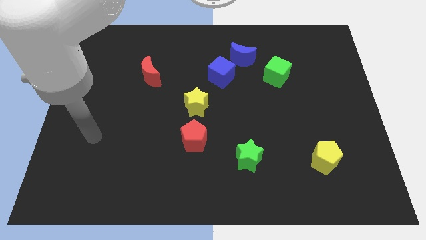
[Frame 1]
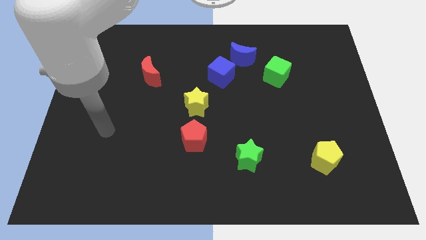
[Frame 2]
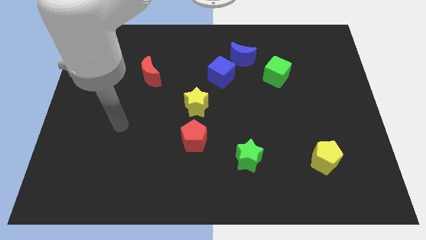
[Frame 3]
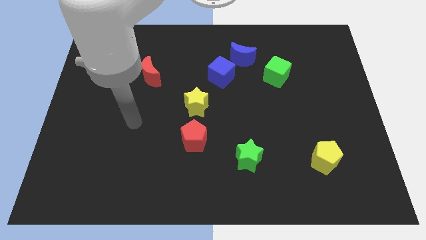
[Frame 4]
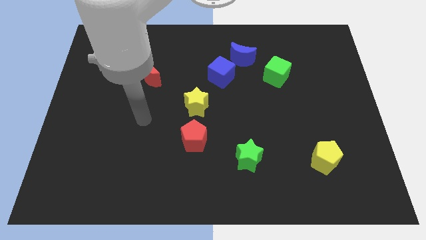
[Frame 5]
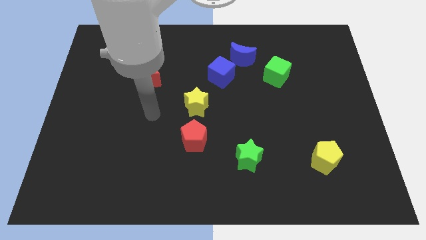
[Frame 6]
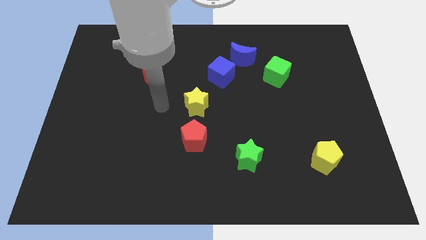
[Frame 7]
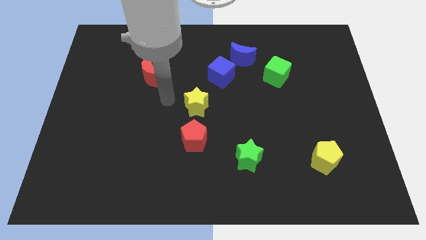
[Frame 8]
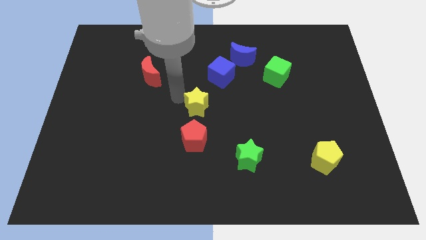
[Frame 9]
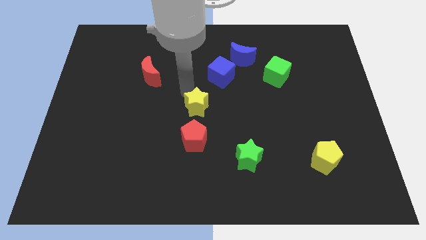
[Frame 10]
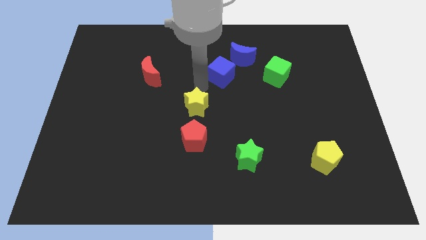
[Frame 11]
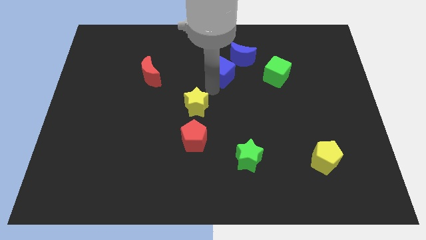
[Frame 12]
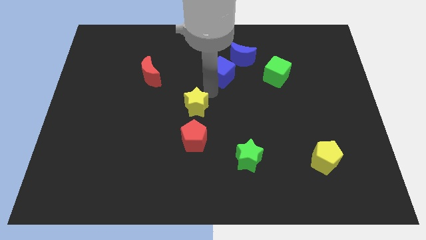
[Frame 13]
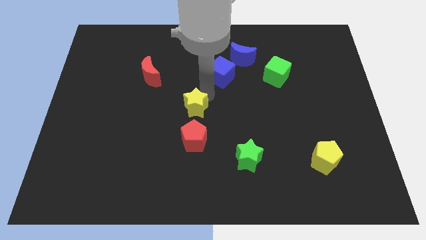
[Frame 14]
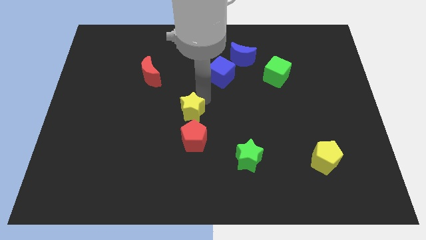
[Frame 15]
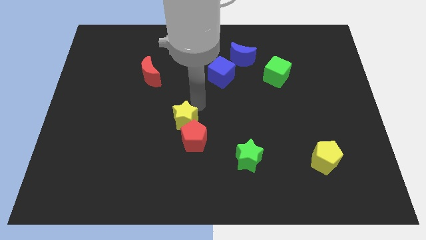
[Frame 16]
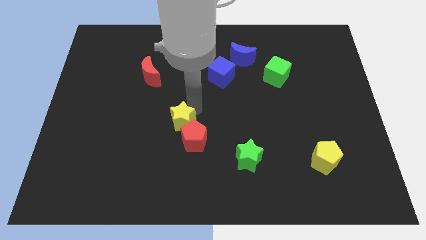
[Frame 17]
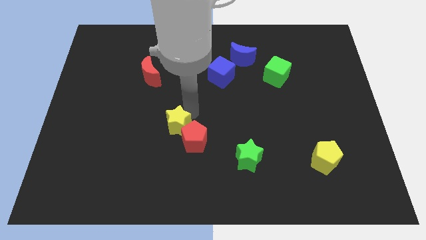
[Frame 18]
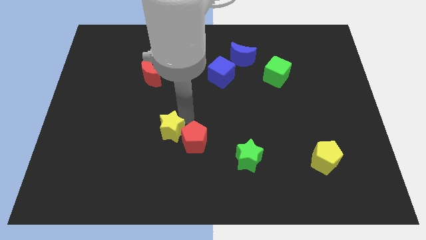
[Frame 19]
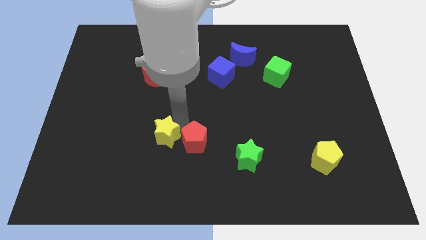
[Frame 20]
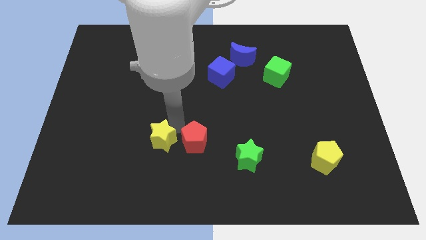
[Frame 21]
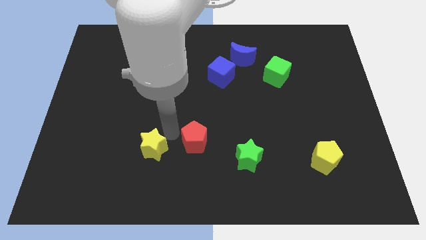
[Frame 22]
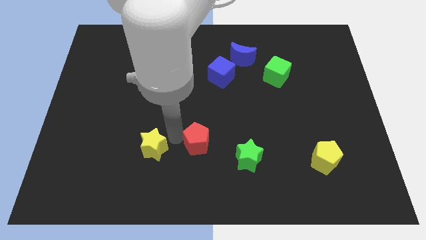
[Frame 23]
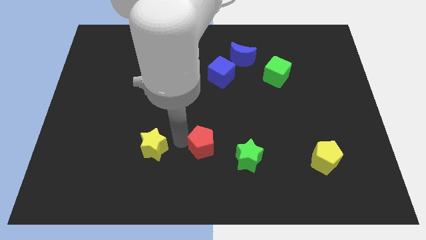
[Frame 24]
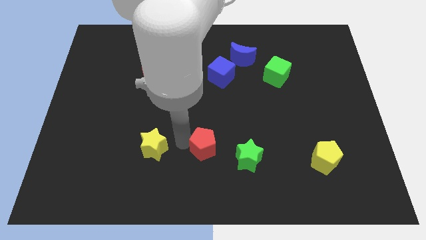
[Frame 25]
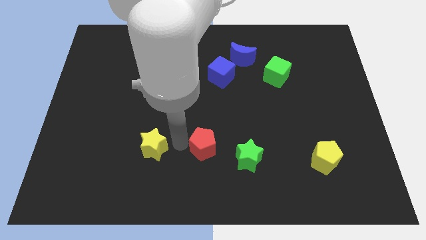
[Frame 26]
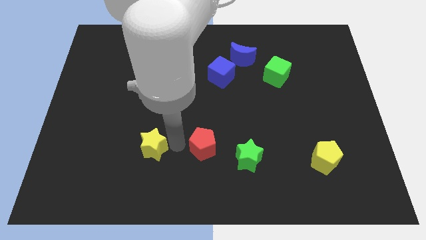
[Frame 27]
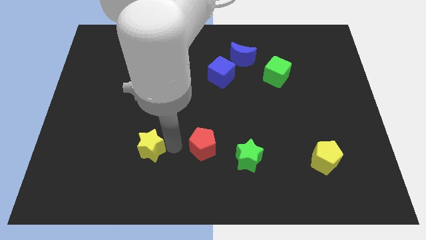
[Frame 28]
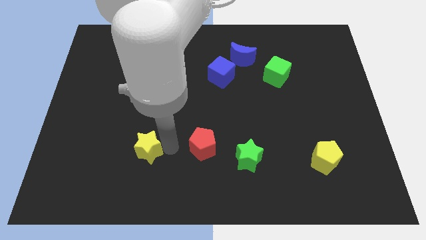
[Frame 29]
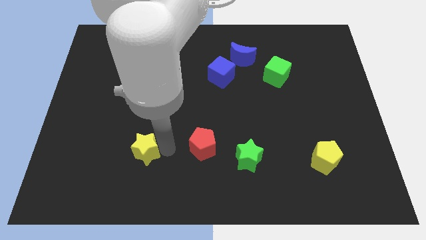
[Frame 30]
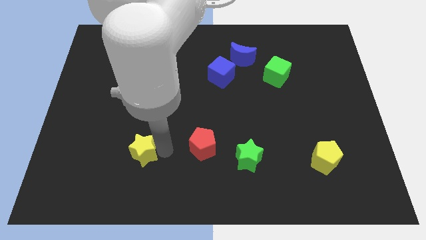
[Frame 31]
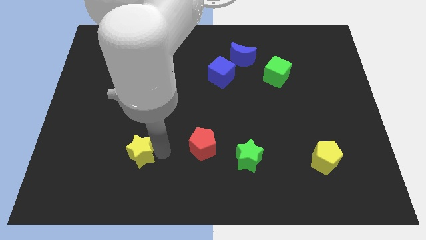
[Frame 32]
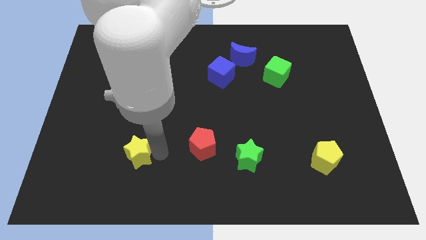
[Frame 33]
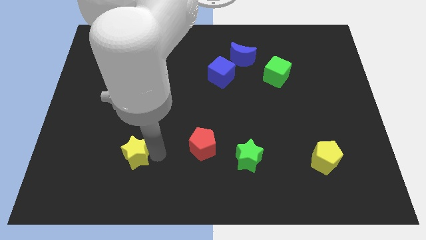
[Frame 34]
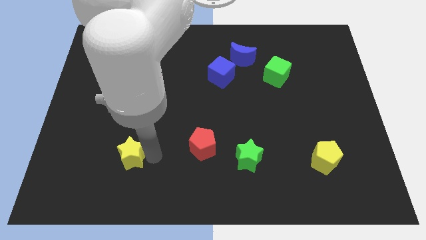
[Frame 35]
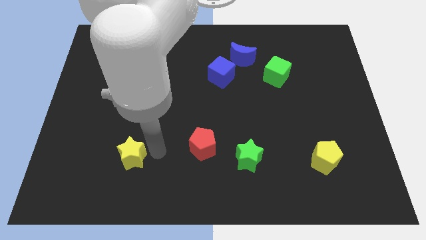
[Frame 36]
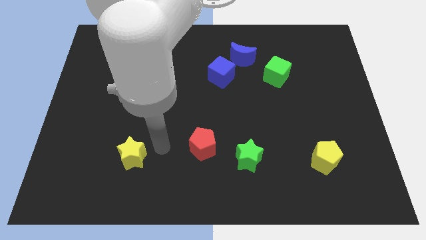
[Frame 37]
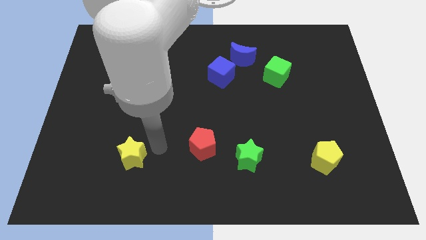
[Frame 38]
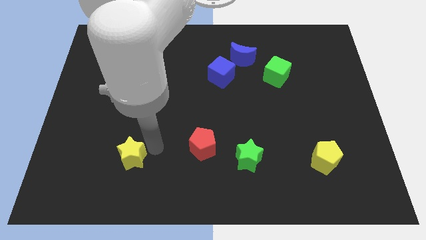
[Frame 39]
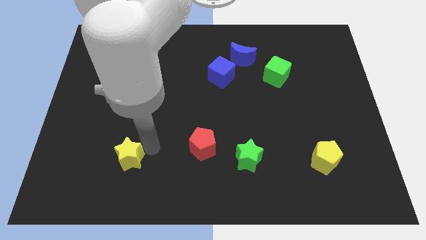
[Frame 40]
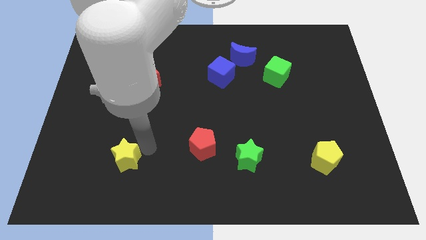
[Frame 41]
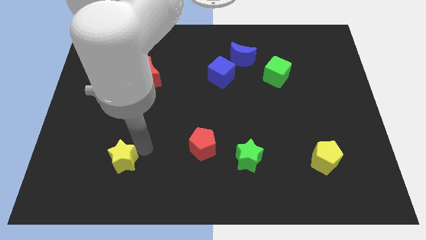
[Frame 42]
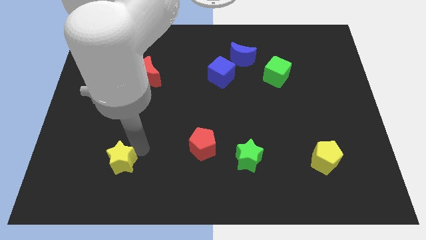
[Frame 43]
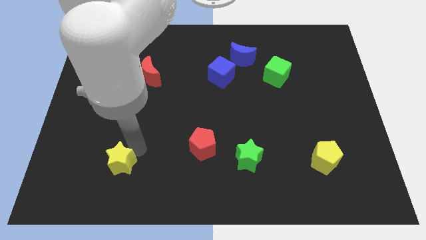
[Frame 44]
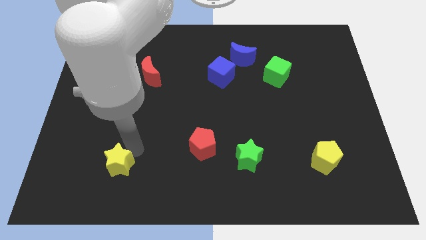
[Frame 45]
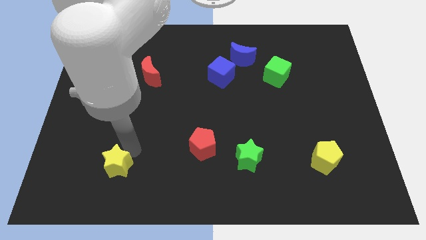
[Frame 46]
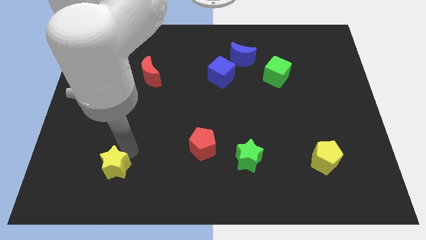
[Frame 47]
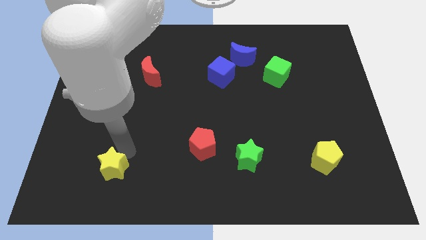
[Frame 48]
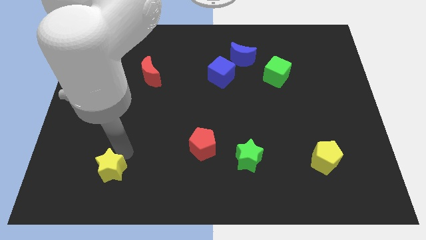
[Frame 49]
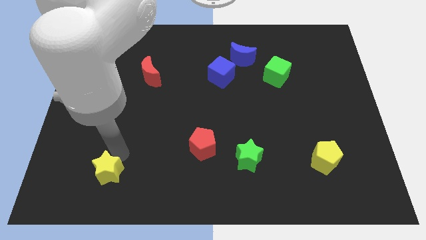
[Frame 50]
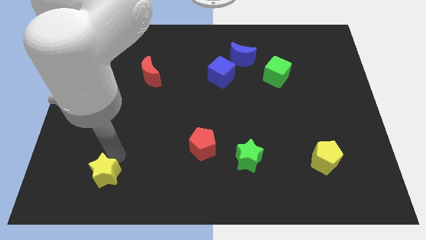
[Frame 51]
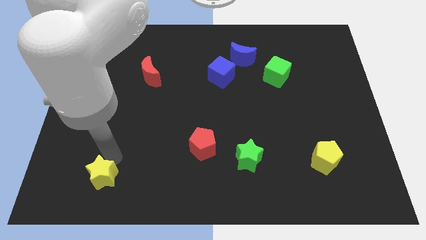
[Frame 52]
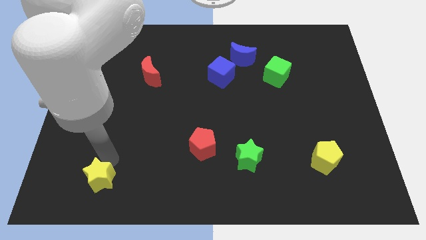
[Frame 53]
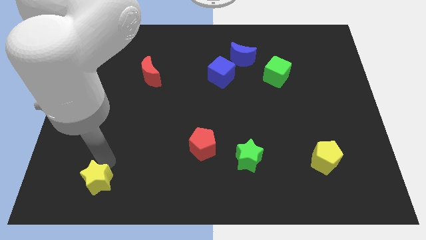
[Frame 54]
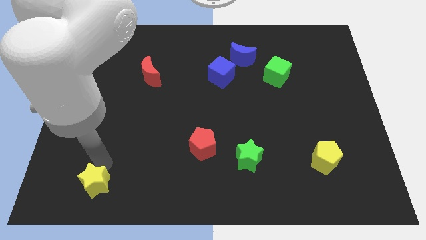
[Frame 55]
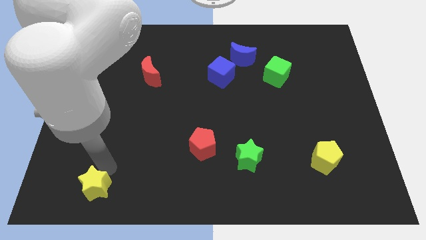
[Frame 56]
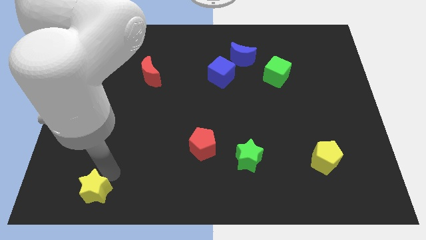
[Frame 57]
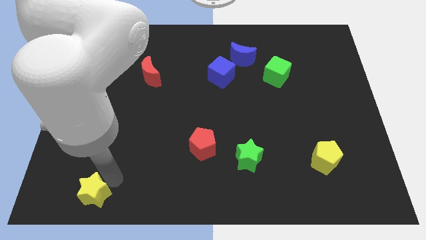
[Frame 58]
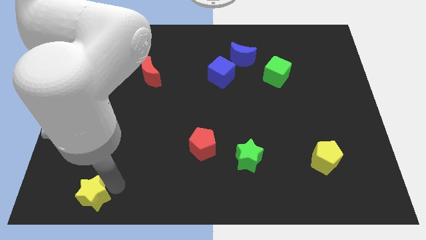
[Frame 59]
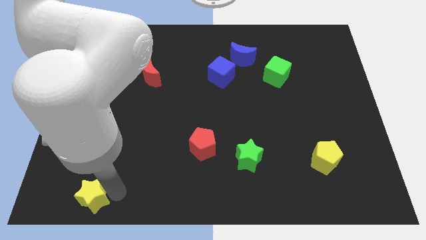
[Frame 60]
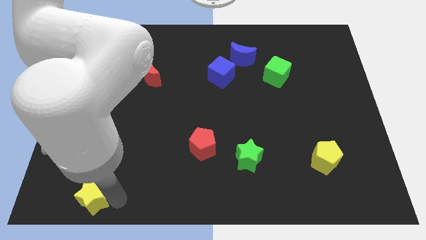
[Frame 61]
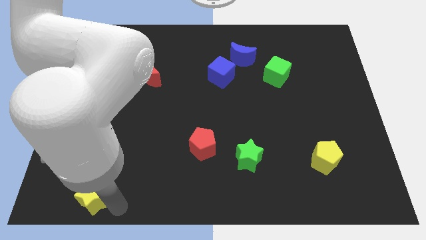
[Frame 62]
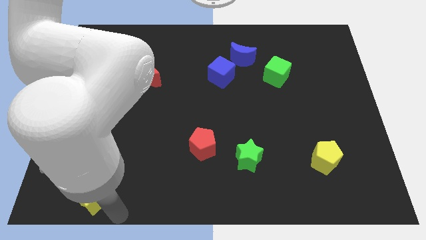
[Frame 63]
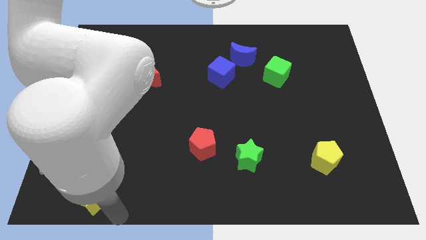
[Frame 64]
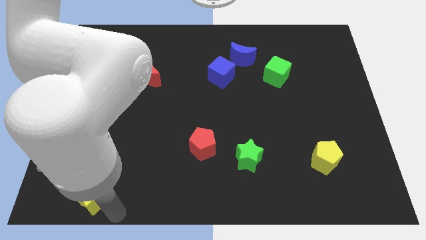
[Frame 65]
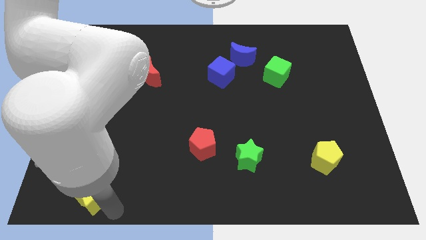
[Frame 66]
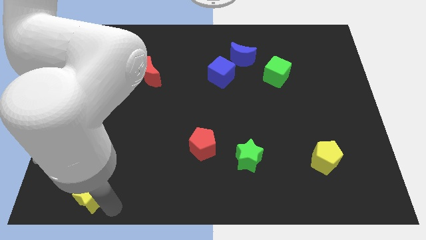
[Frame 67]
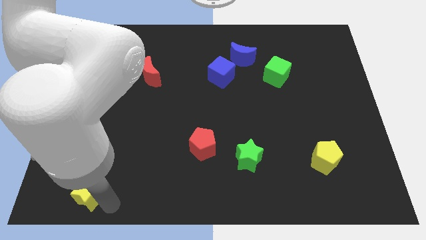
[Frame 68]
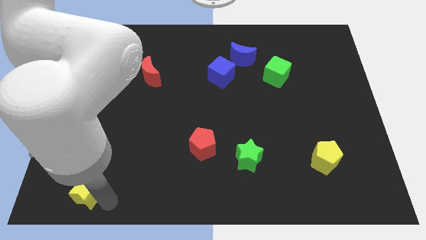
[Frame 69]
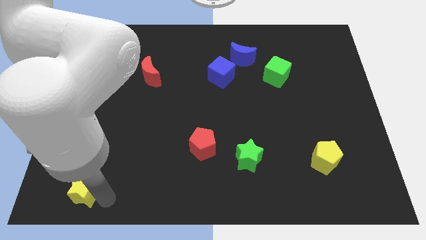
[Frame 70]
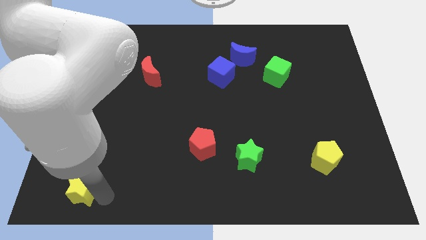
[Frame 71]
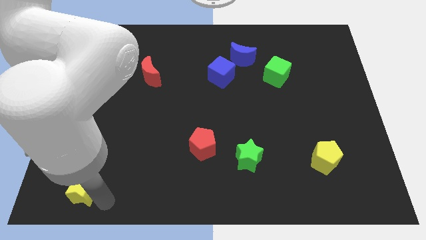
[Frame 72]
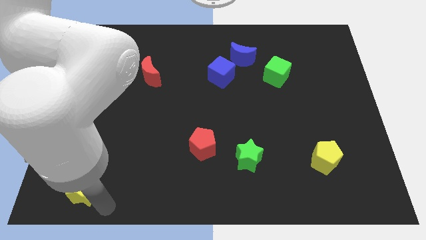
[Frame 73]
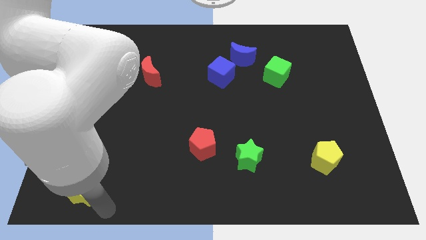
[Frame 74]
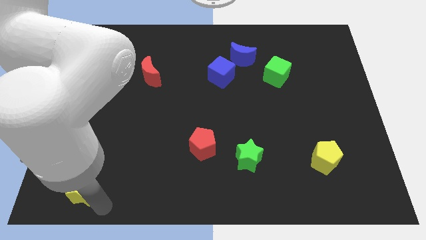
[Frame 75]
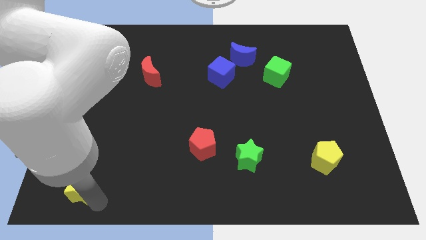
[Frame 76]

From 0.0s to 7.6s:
put the yellow star to the bottom left corner
